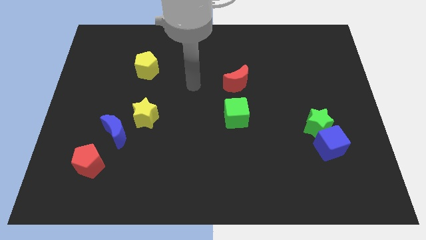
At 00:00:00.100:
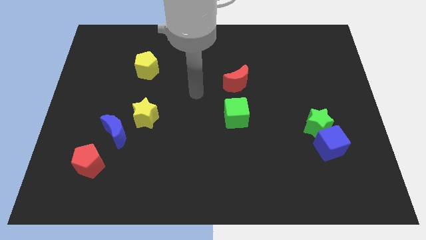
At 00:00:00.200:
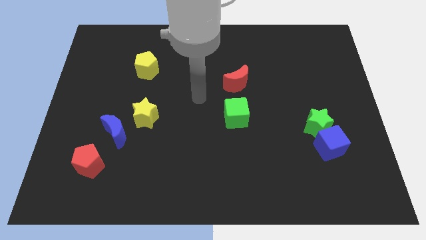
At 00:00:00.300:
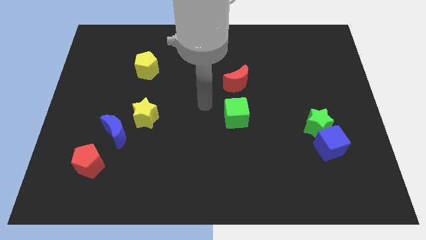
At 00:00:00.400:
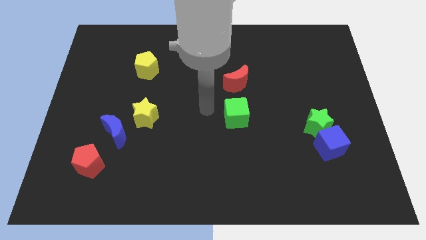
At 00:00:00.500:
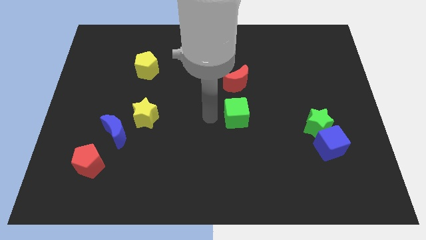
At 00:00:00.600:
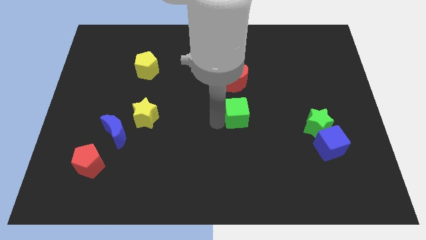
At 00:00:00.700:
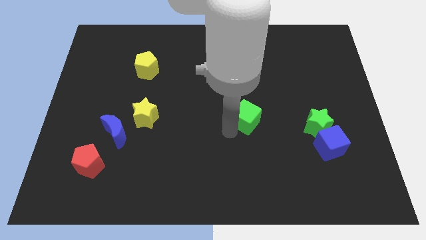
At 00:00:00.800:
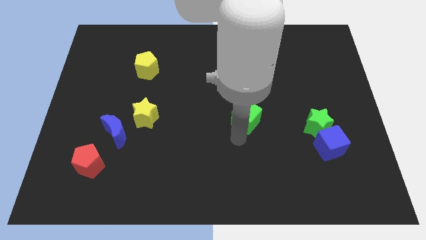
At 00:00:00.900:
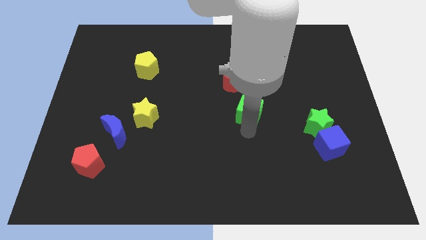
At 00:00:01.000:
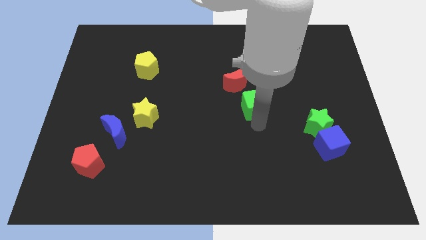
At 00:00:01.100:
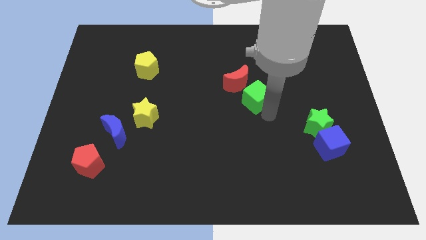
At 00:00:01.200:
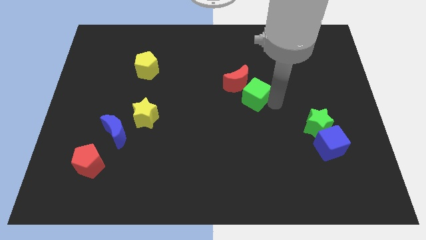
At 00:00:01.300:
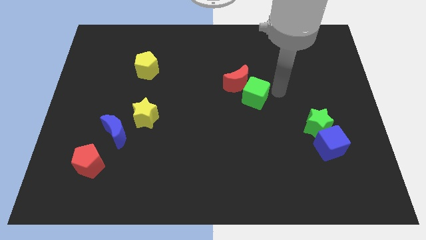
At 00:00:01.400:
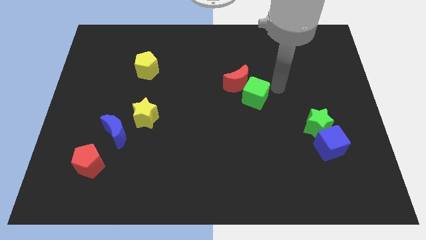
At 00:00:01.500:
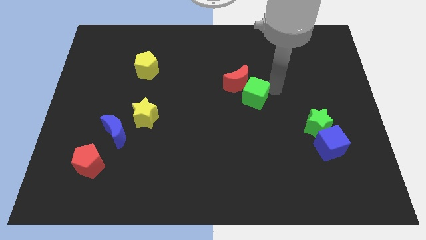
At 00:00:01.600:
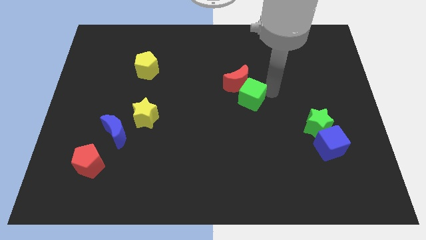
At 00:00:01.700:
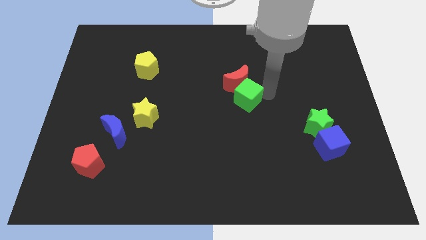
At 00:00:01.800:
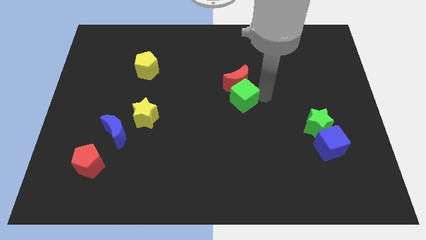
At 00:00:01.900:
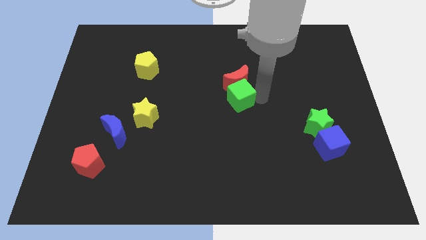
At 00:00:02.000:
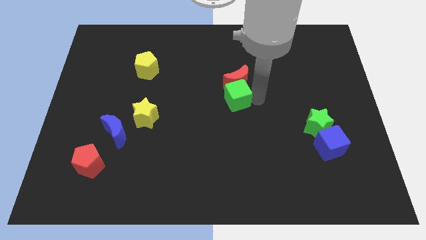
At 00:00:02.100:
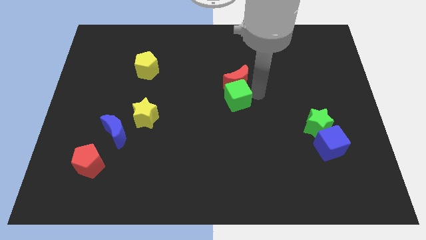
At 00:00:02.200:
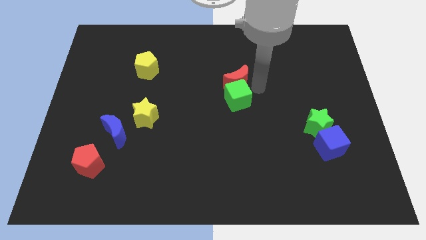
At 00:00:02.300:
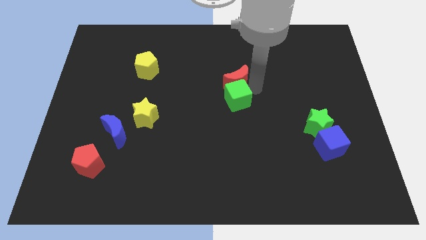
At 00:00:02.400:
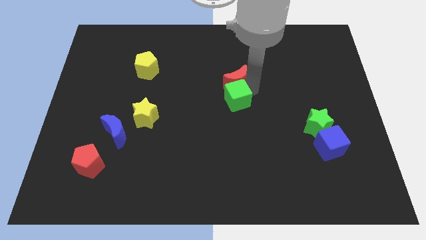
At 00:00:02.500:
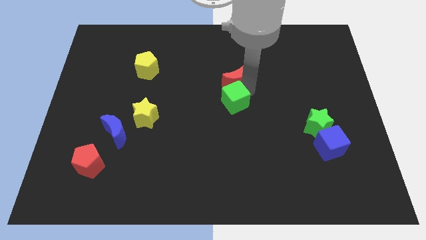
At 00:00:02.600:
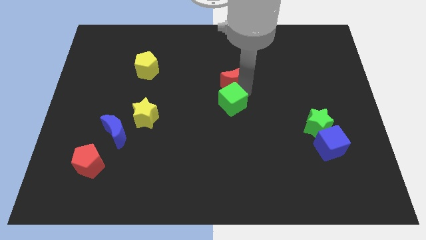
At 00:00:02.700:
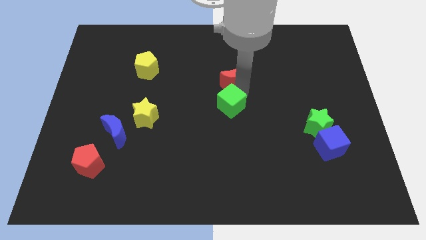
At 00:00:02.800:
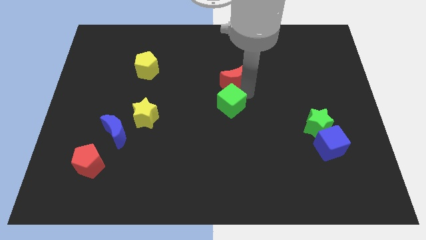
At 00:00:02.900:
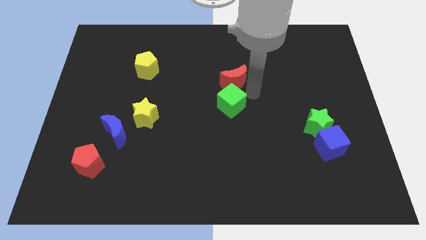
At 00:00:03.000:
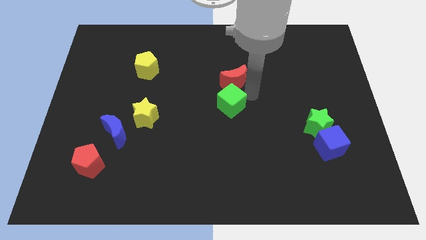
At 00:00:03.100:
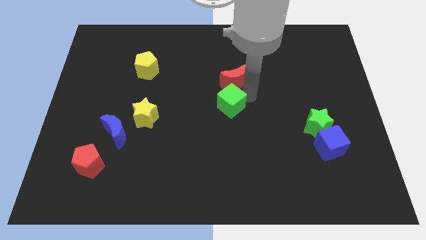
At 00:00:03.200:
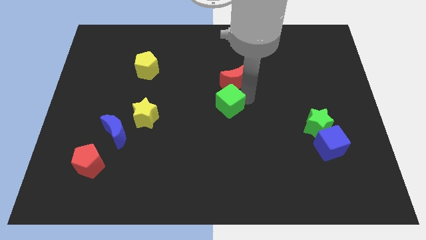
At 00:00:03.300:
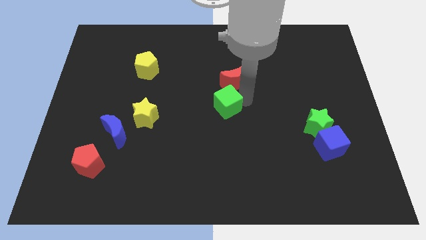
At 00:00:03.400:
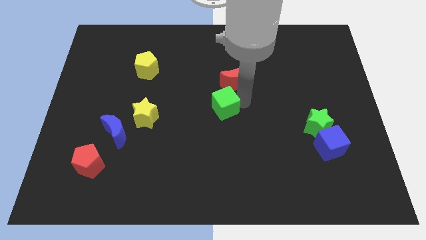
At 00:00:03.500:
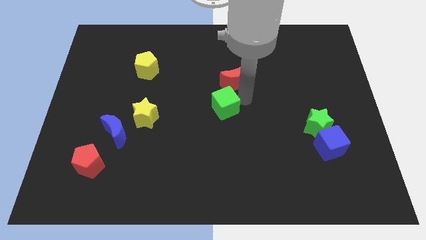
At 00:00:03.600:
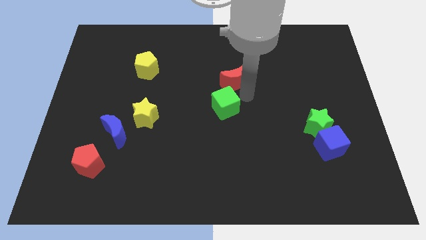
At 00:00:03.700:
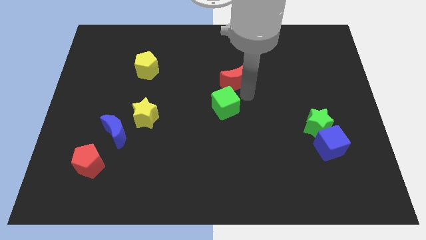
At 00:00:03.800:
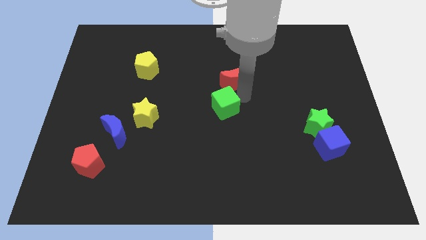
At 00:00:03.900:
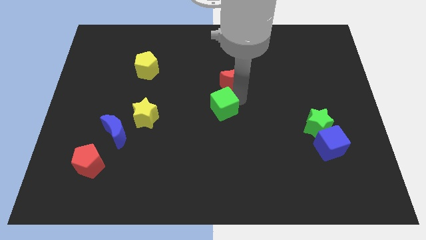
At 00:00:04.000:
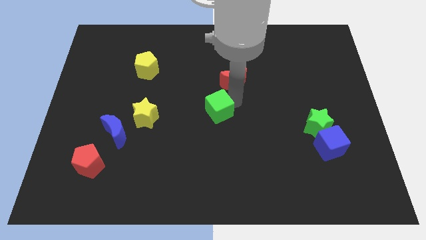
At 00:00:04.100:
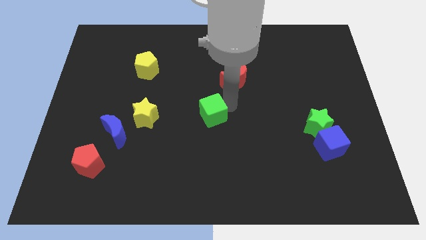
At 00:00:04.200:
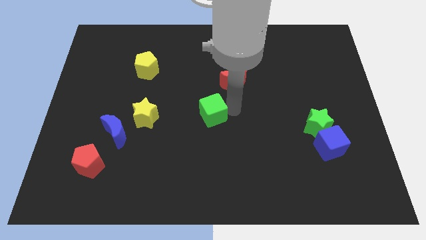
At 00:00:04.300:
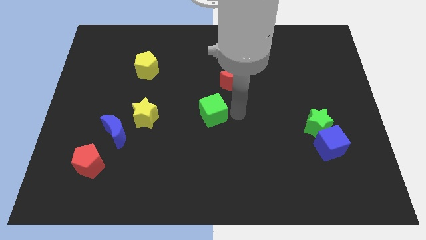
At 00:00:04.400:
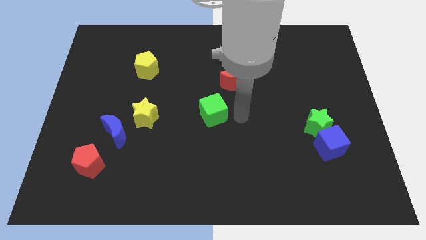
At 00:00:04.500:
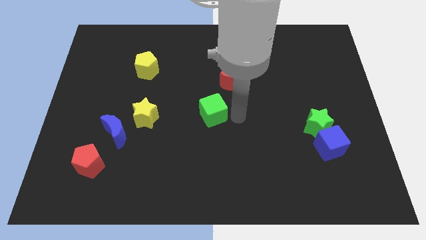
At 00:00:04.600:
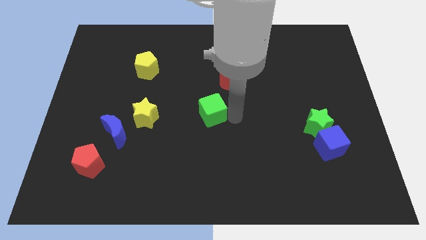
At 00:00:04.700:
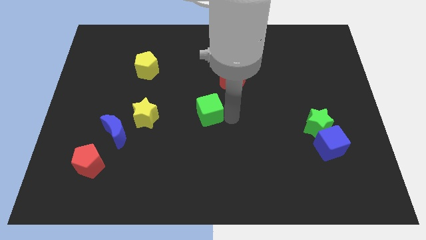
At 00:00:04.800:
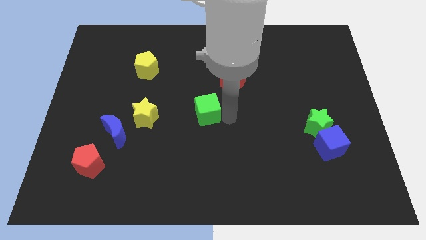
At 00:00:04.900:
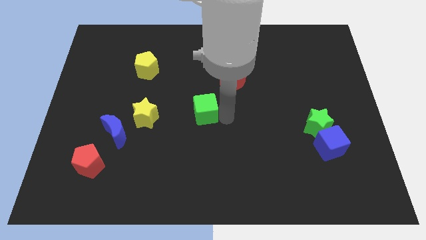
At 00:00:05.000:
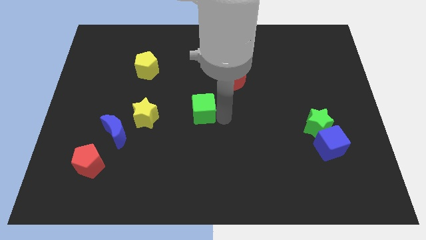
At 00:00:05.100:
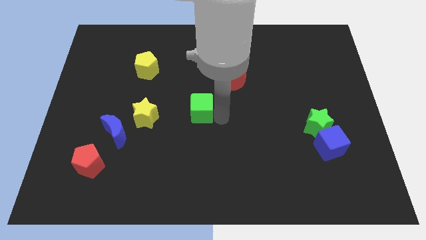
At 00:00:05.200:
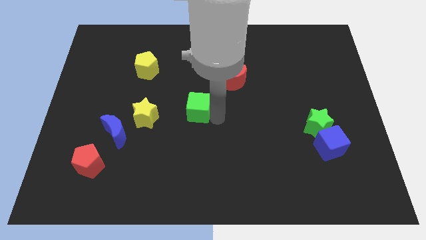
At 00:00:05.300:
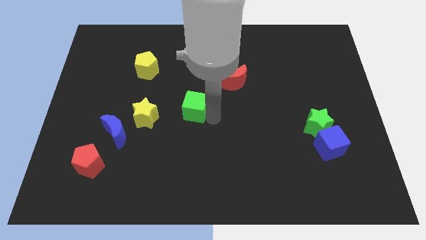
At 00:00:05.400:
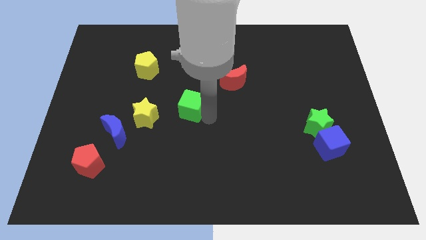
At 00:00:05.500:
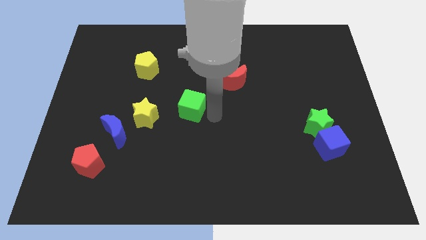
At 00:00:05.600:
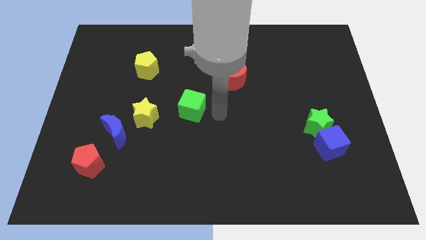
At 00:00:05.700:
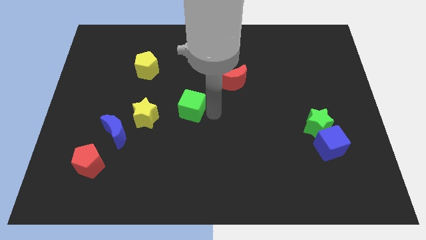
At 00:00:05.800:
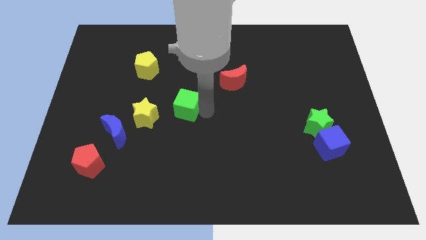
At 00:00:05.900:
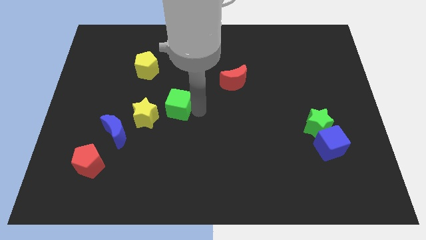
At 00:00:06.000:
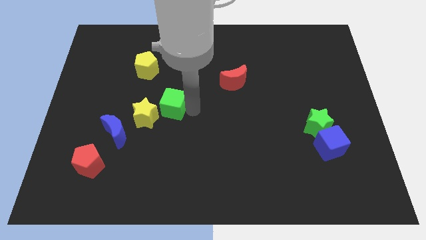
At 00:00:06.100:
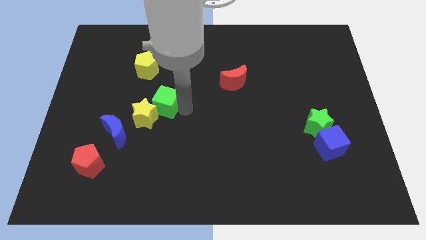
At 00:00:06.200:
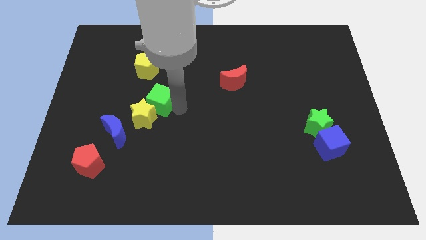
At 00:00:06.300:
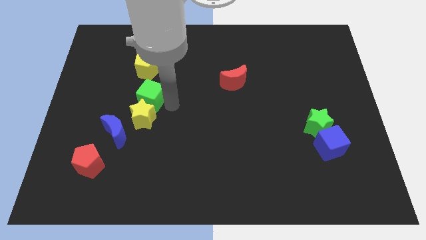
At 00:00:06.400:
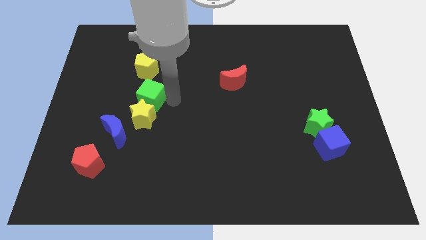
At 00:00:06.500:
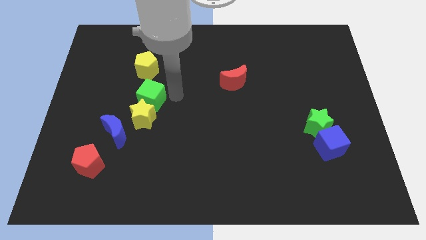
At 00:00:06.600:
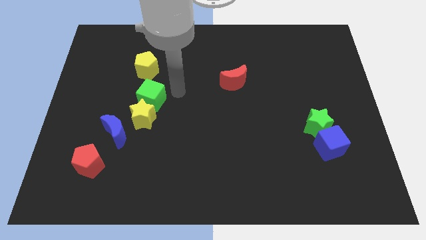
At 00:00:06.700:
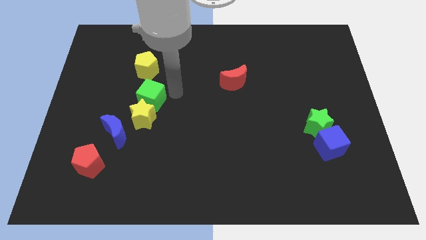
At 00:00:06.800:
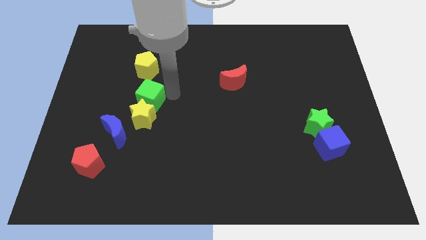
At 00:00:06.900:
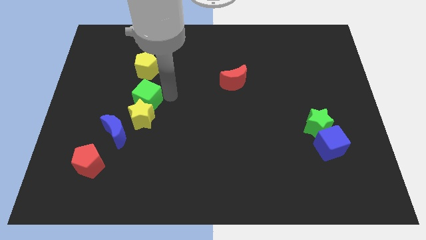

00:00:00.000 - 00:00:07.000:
slide the green cube to the left

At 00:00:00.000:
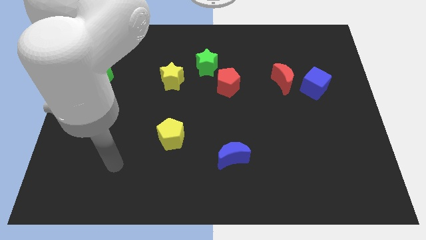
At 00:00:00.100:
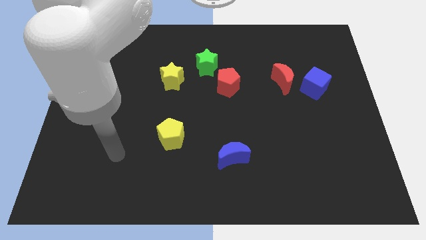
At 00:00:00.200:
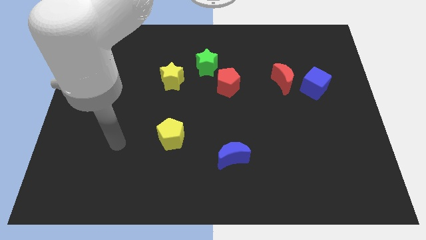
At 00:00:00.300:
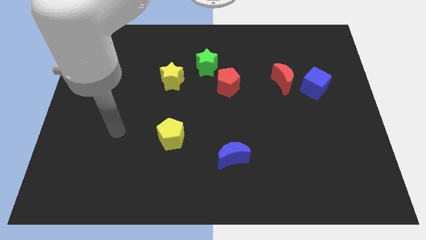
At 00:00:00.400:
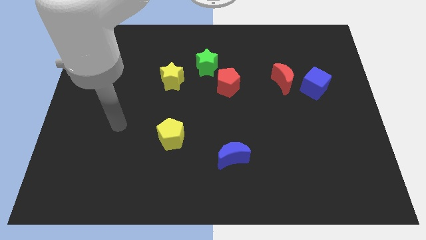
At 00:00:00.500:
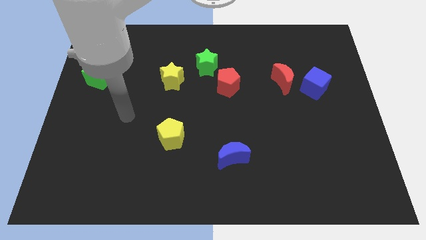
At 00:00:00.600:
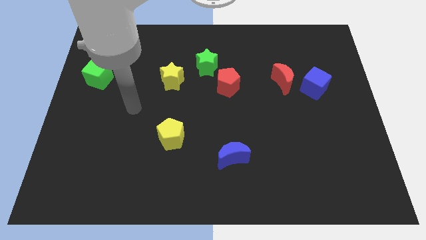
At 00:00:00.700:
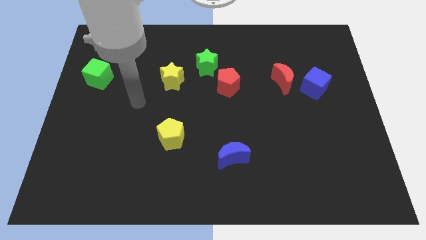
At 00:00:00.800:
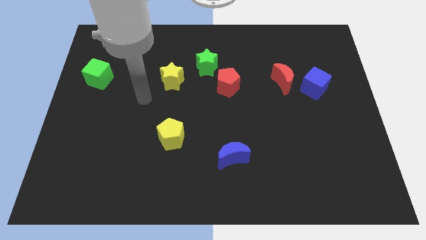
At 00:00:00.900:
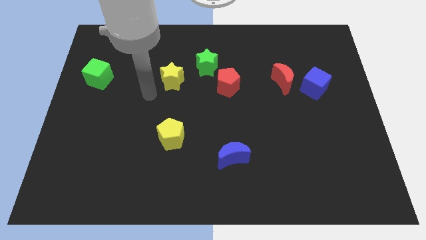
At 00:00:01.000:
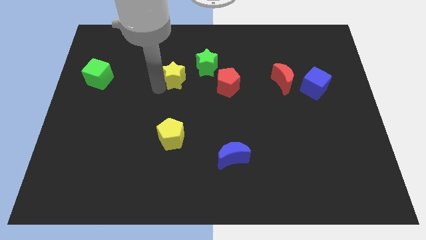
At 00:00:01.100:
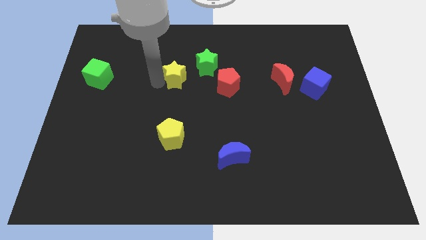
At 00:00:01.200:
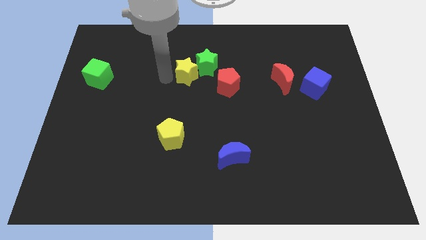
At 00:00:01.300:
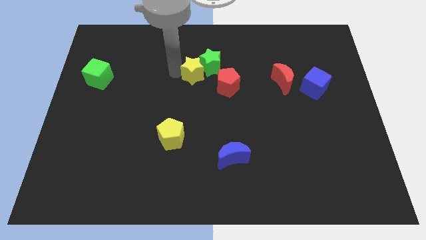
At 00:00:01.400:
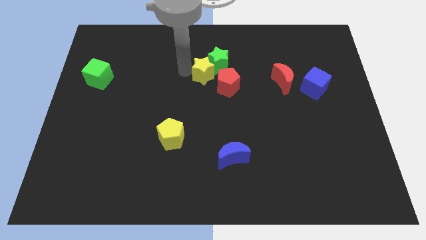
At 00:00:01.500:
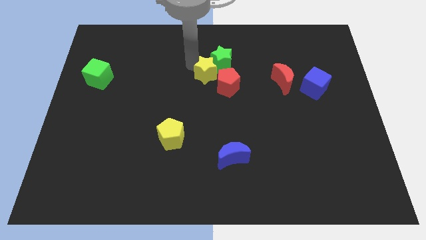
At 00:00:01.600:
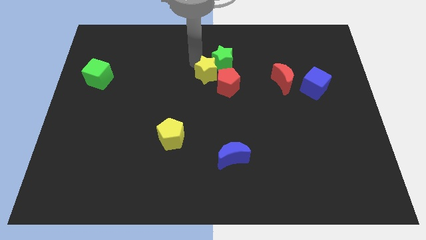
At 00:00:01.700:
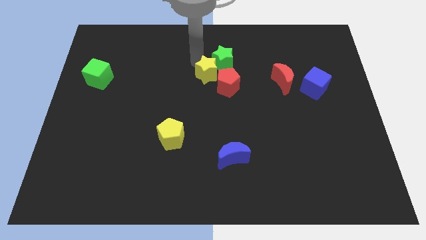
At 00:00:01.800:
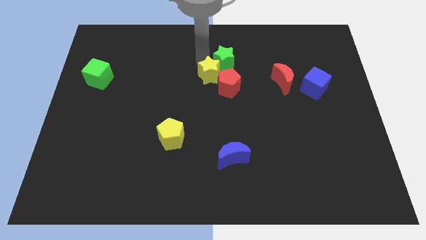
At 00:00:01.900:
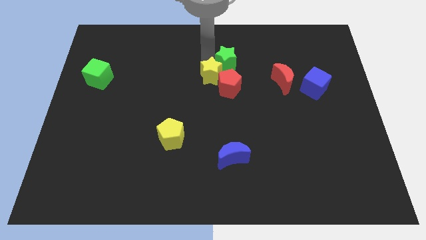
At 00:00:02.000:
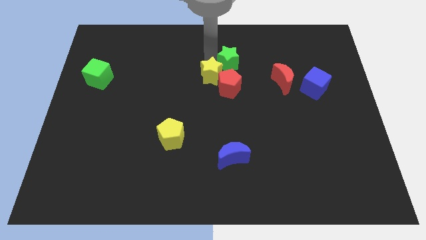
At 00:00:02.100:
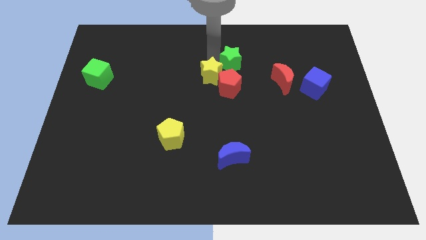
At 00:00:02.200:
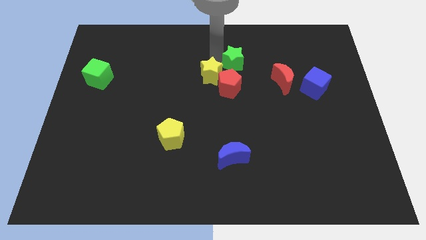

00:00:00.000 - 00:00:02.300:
push the green star a bit to the right
